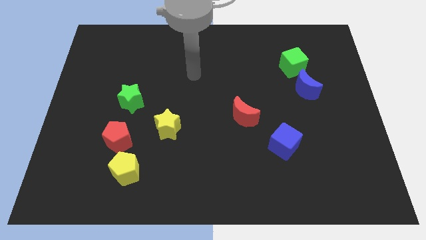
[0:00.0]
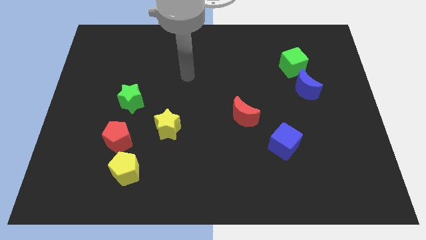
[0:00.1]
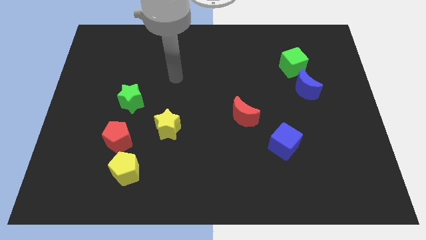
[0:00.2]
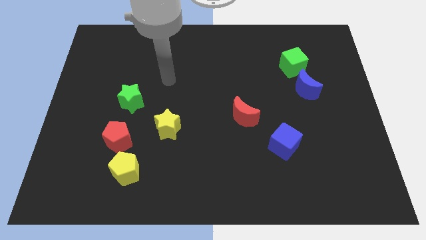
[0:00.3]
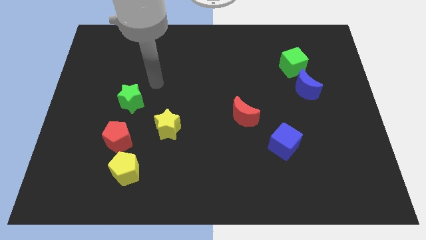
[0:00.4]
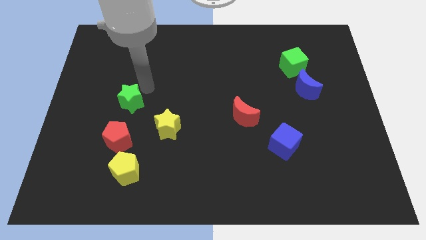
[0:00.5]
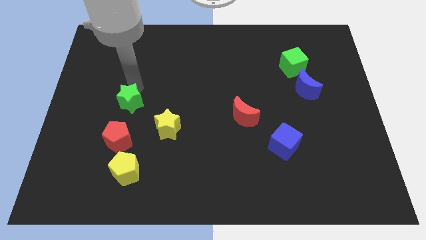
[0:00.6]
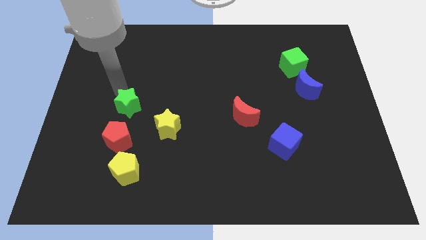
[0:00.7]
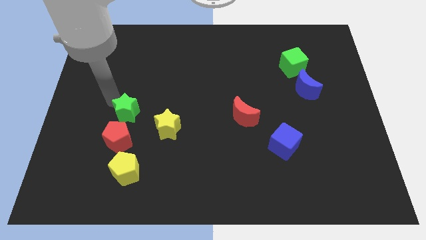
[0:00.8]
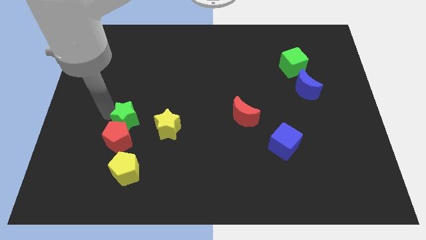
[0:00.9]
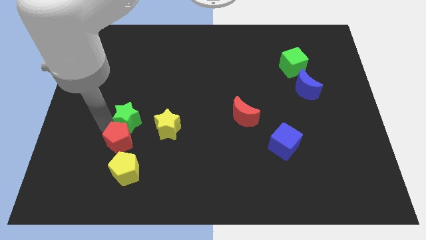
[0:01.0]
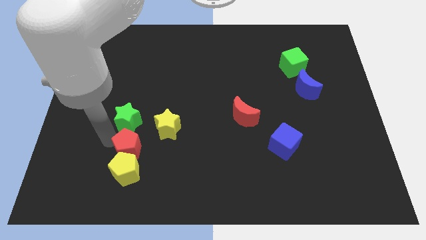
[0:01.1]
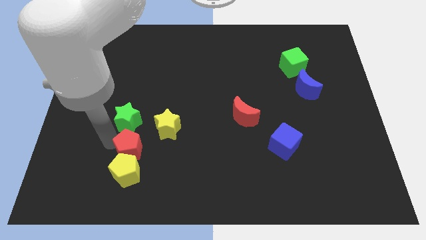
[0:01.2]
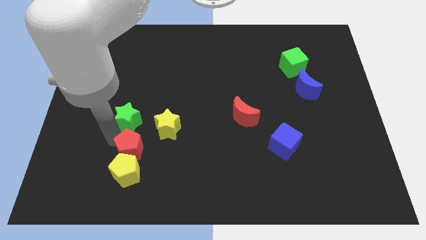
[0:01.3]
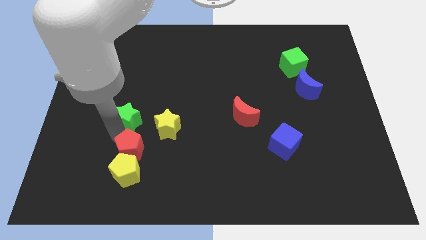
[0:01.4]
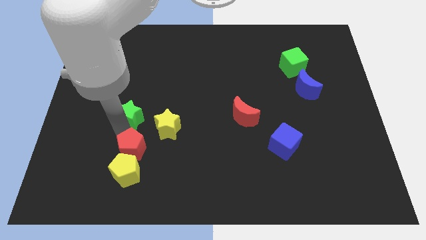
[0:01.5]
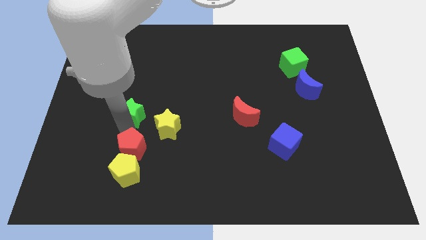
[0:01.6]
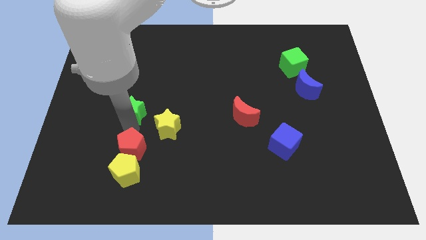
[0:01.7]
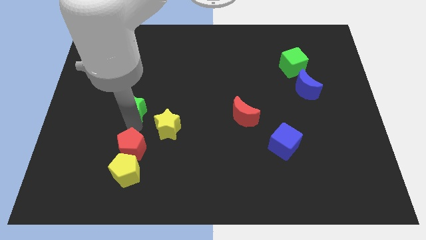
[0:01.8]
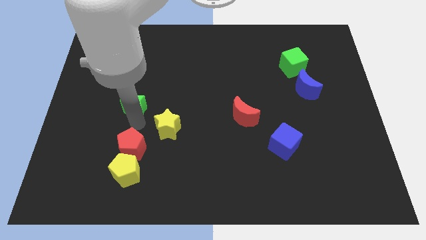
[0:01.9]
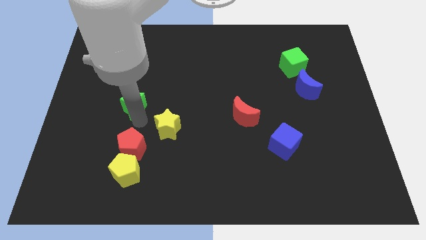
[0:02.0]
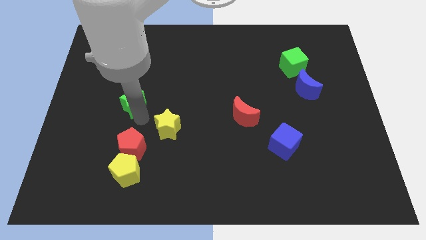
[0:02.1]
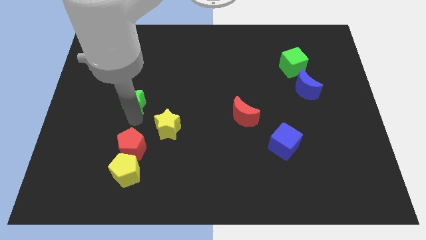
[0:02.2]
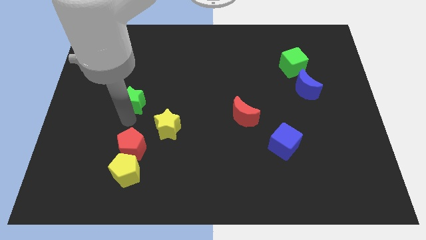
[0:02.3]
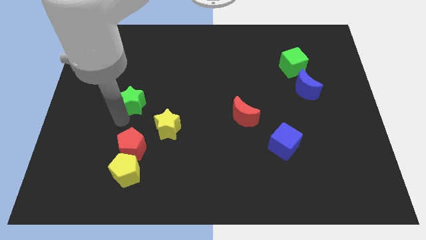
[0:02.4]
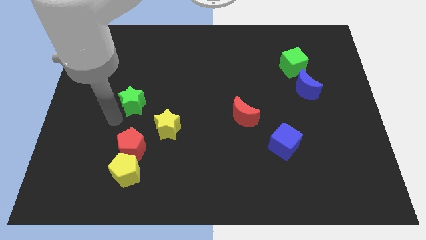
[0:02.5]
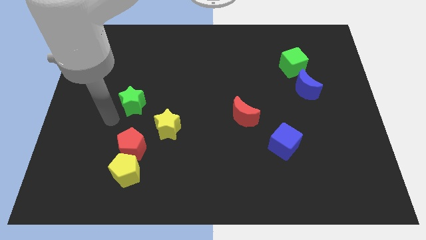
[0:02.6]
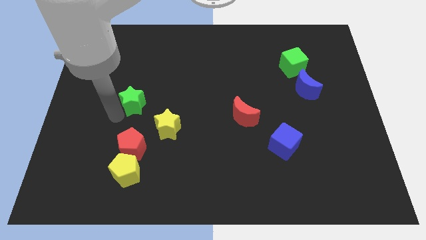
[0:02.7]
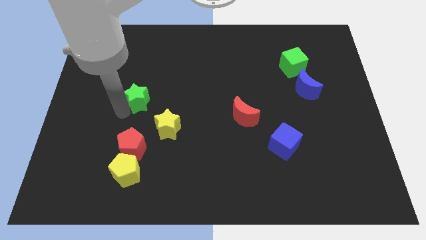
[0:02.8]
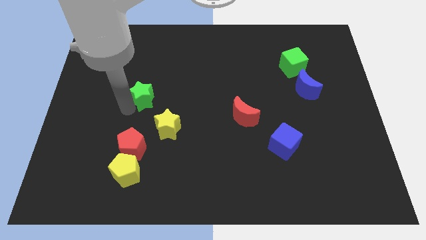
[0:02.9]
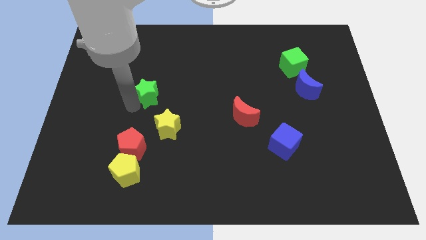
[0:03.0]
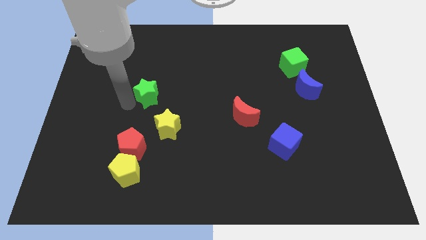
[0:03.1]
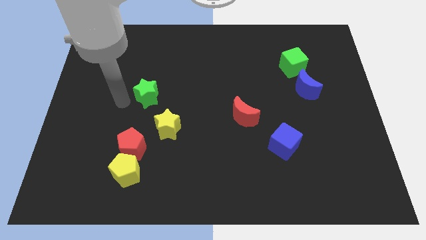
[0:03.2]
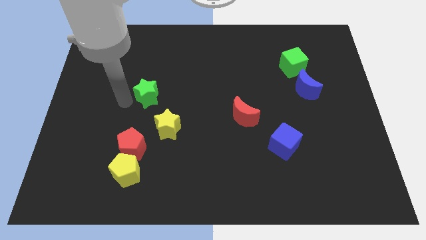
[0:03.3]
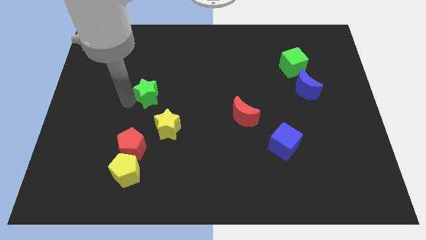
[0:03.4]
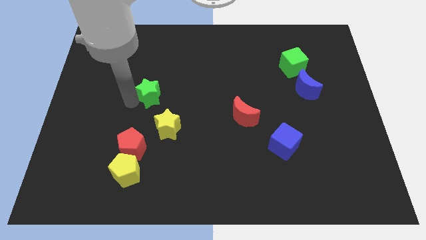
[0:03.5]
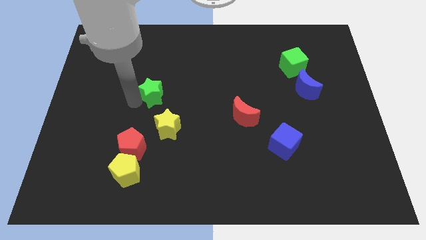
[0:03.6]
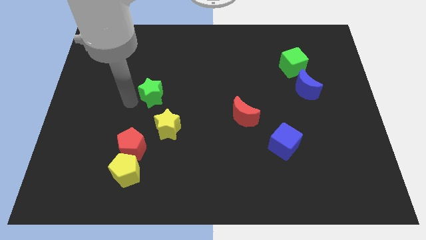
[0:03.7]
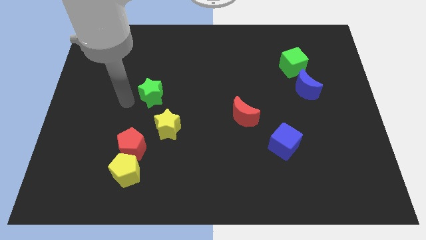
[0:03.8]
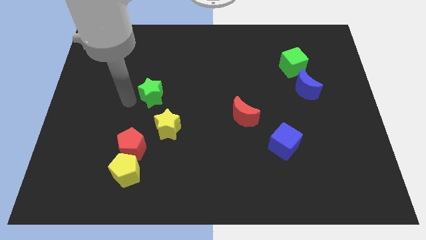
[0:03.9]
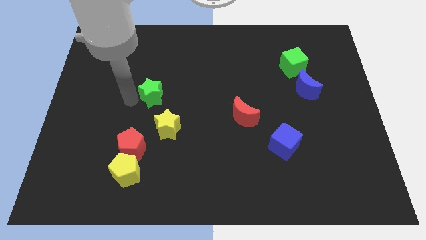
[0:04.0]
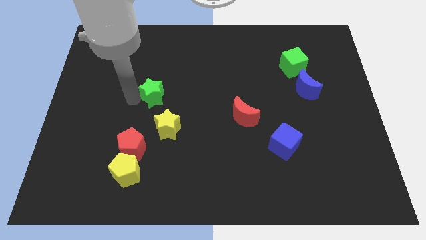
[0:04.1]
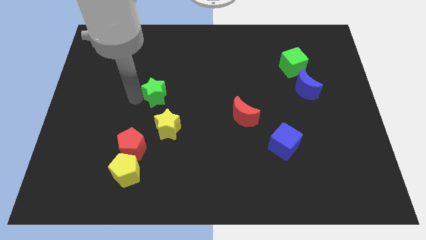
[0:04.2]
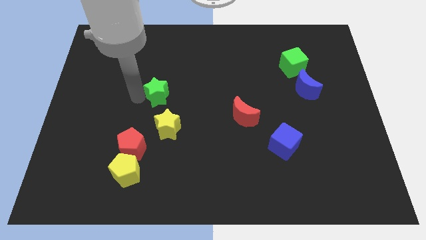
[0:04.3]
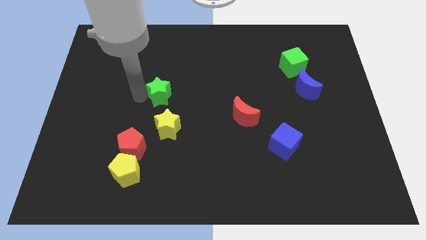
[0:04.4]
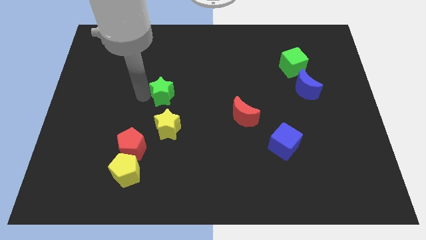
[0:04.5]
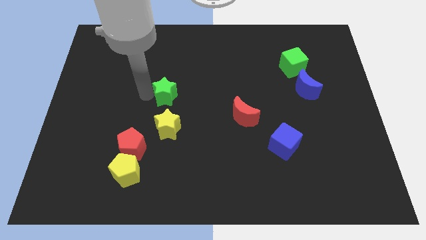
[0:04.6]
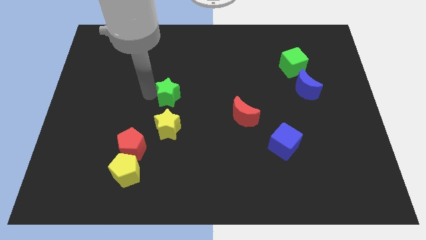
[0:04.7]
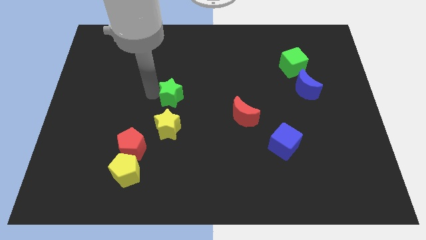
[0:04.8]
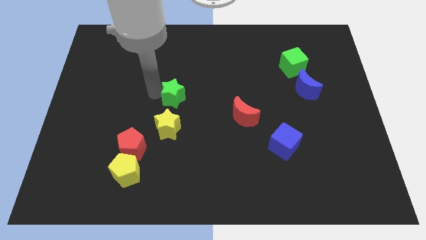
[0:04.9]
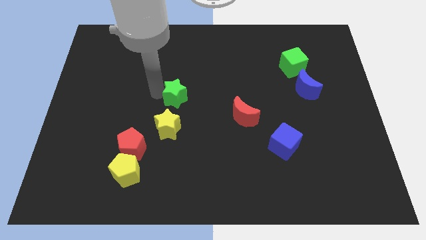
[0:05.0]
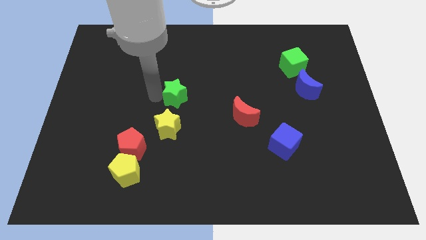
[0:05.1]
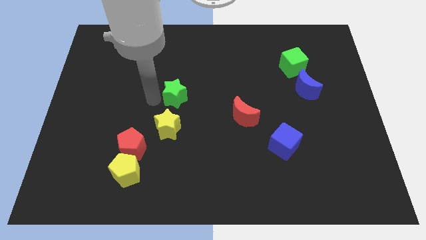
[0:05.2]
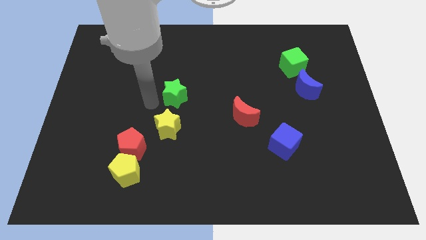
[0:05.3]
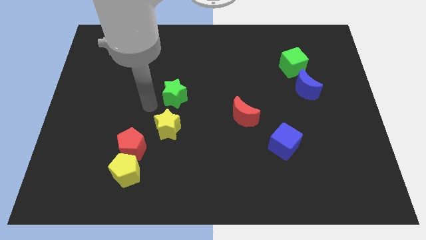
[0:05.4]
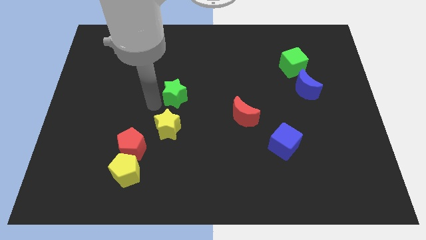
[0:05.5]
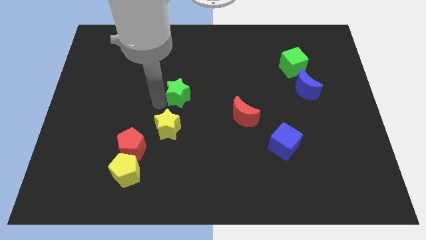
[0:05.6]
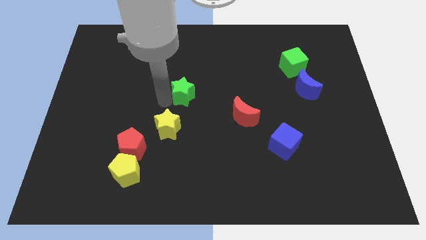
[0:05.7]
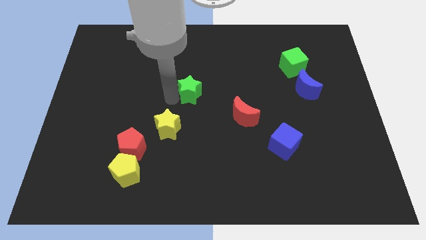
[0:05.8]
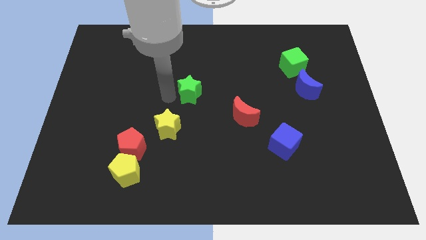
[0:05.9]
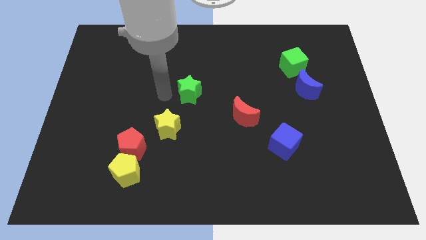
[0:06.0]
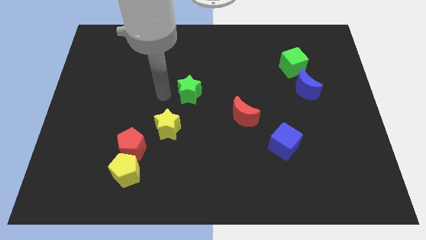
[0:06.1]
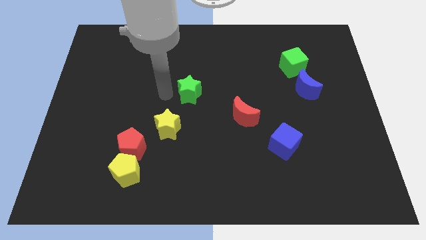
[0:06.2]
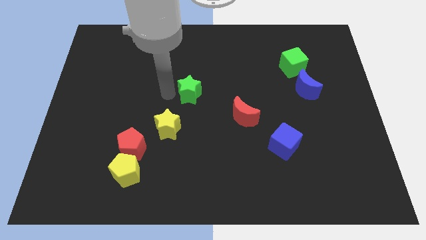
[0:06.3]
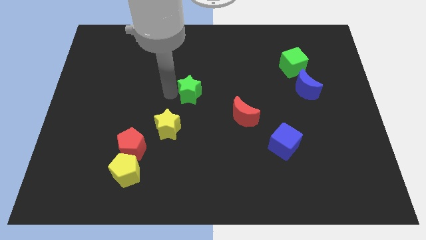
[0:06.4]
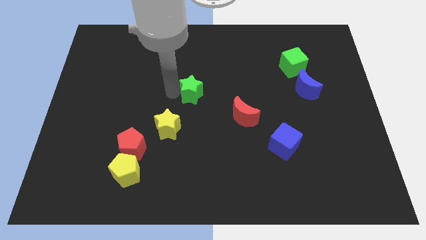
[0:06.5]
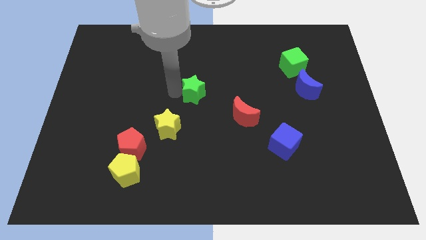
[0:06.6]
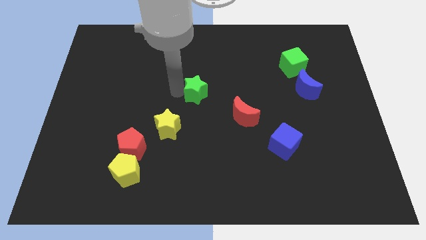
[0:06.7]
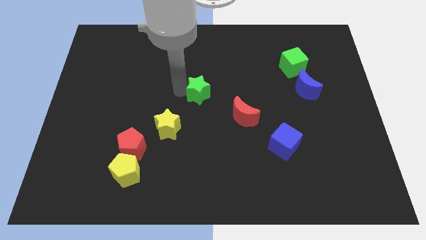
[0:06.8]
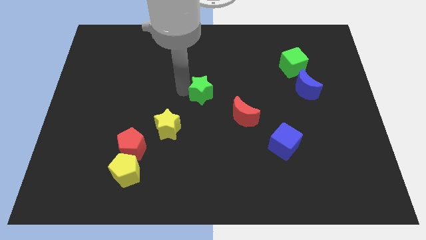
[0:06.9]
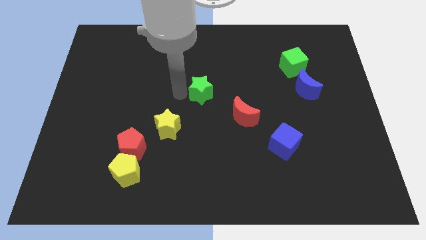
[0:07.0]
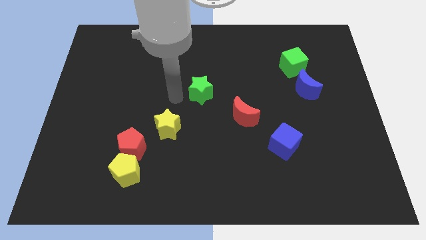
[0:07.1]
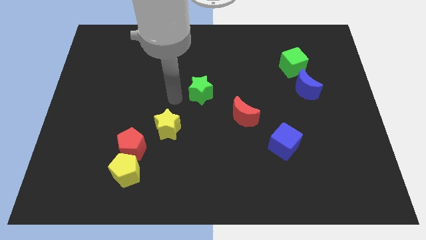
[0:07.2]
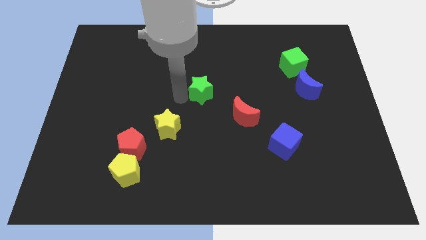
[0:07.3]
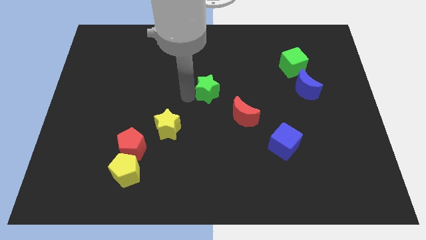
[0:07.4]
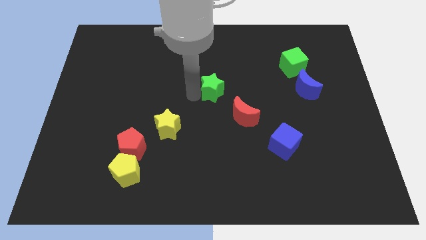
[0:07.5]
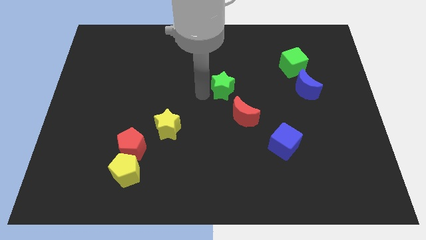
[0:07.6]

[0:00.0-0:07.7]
slide the green star to the top of the red moon
